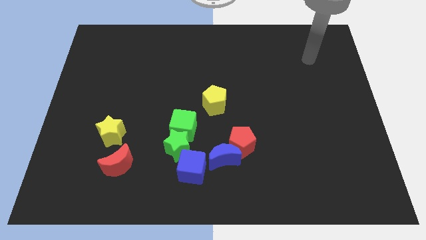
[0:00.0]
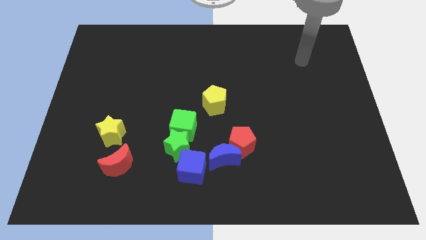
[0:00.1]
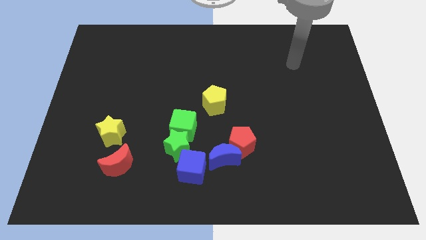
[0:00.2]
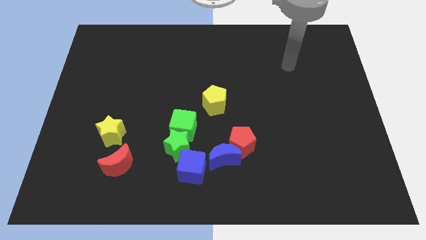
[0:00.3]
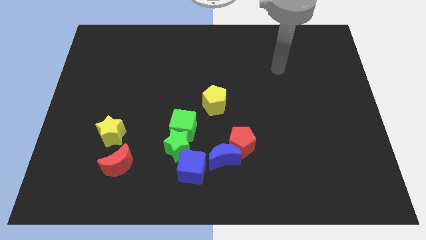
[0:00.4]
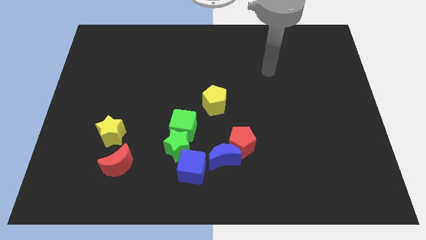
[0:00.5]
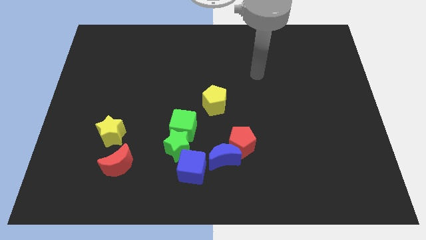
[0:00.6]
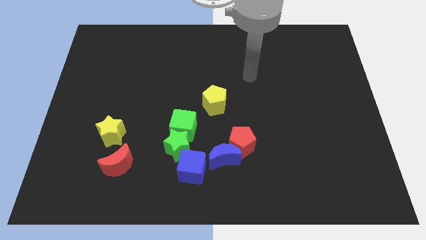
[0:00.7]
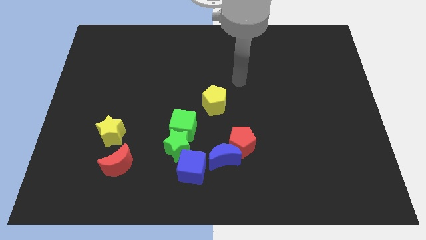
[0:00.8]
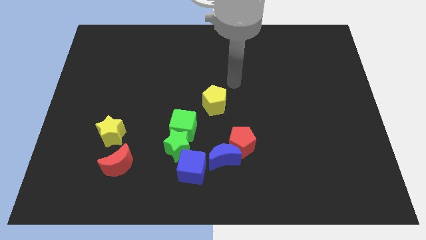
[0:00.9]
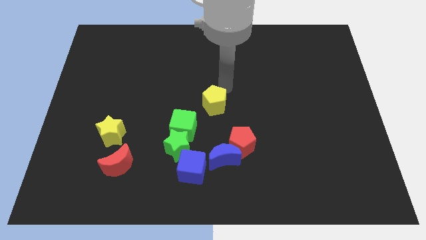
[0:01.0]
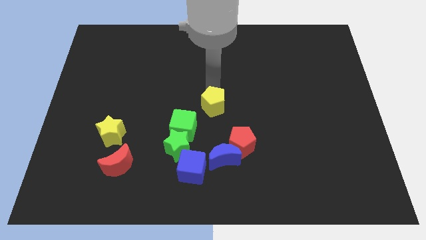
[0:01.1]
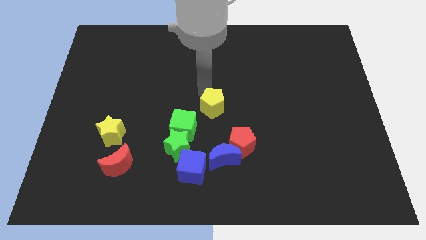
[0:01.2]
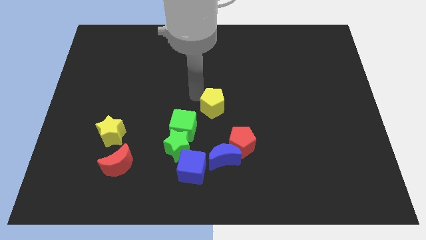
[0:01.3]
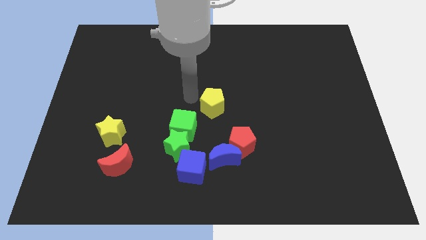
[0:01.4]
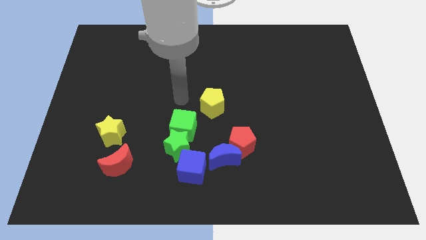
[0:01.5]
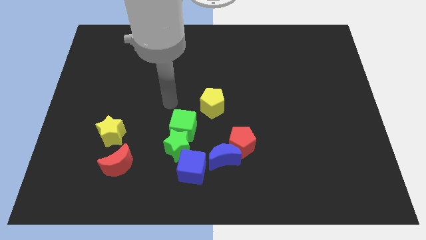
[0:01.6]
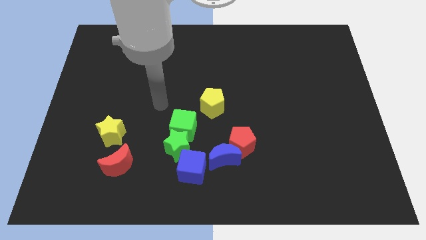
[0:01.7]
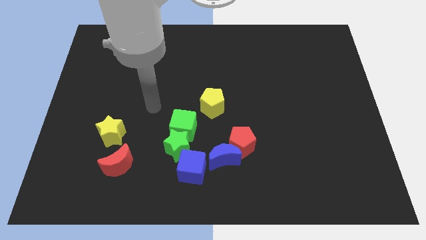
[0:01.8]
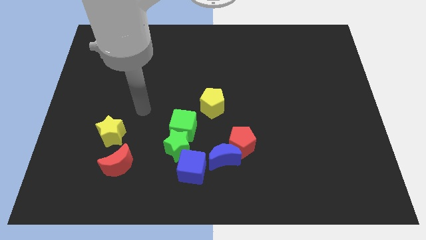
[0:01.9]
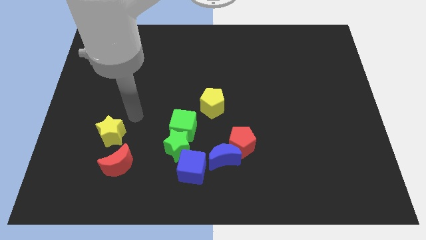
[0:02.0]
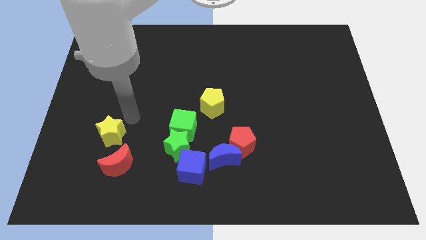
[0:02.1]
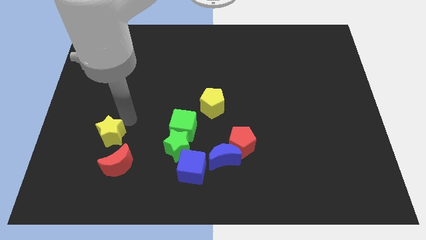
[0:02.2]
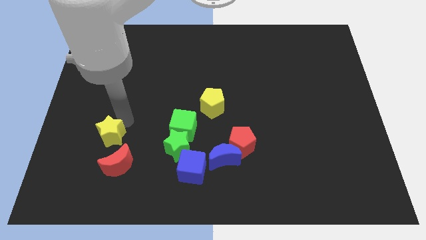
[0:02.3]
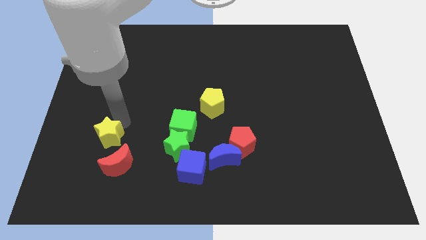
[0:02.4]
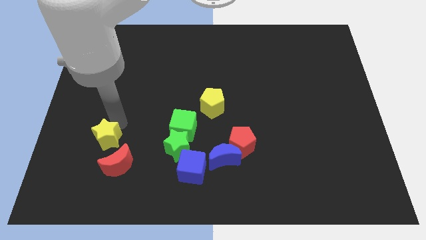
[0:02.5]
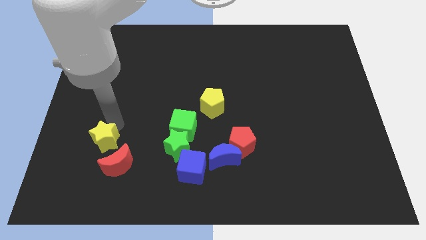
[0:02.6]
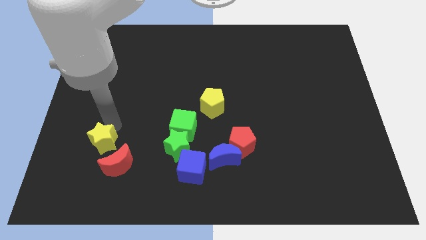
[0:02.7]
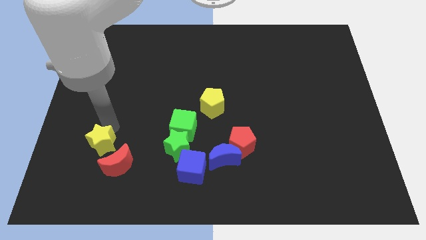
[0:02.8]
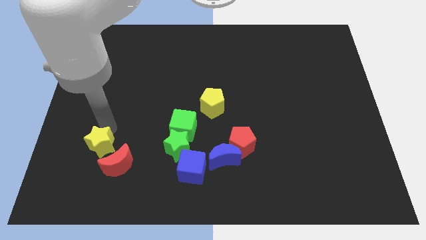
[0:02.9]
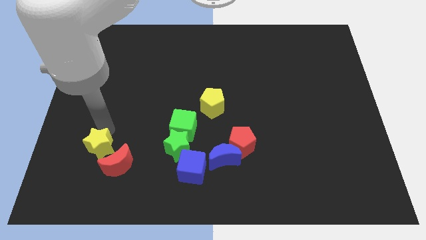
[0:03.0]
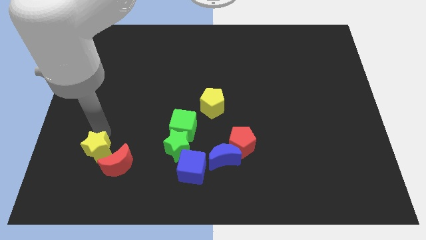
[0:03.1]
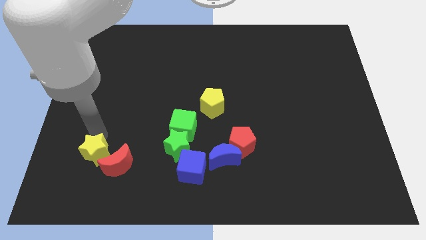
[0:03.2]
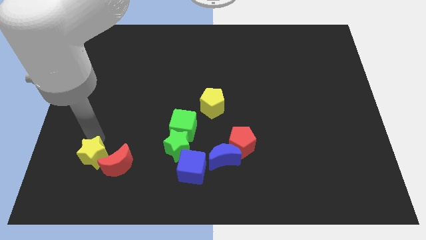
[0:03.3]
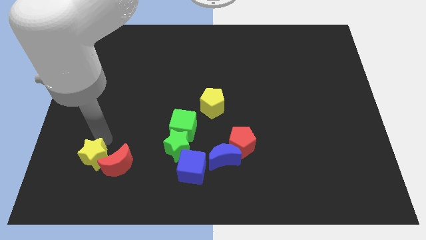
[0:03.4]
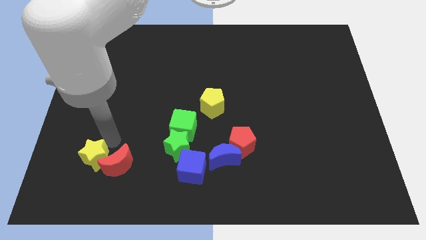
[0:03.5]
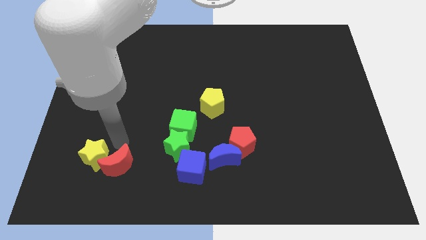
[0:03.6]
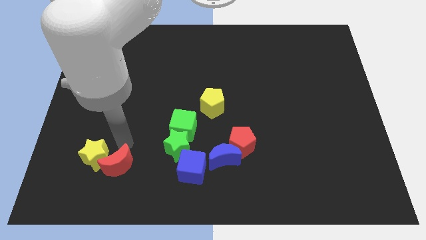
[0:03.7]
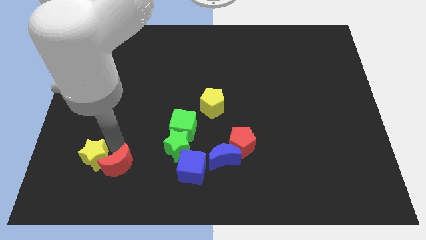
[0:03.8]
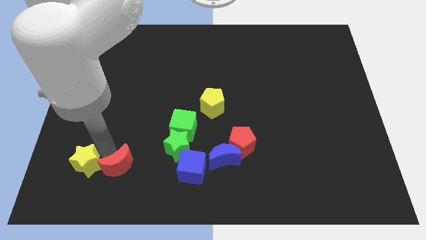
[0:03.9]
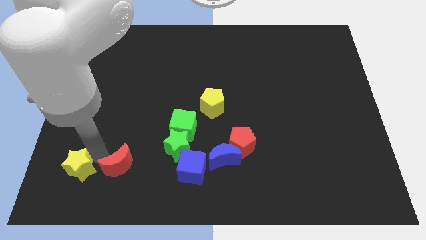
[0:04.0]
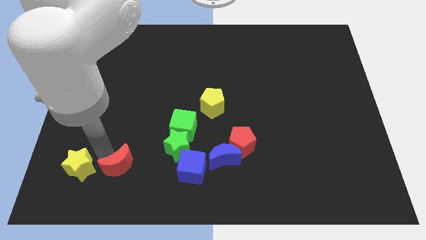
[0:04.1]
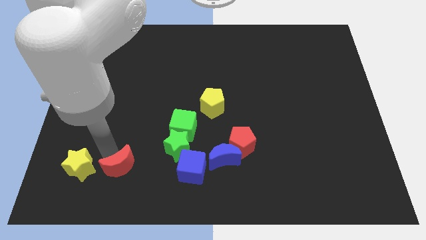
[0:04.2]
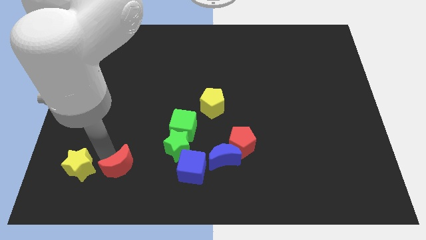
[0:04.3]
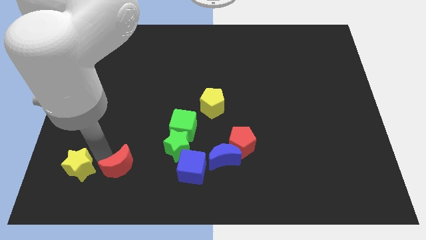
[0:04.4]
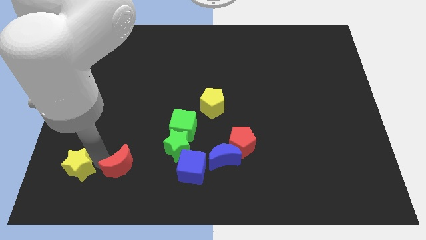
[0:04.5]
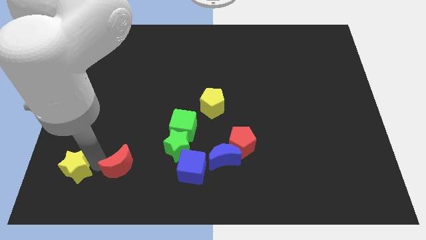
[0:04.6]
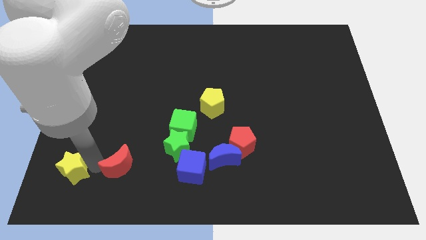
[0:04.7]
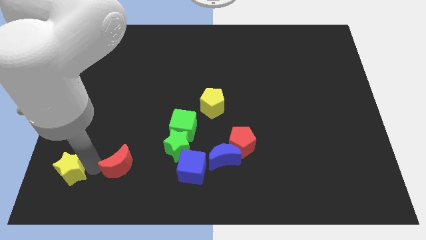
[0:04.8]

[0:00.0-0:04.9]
put the yellow star to the bottom left

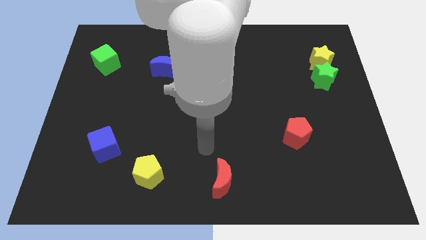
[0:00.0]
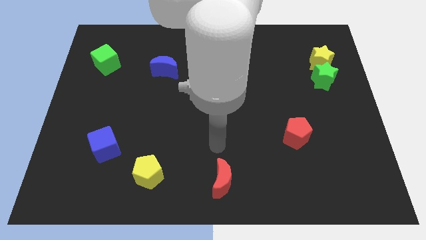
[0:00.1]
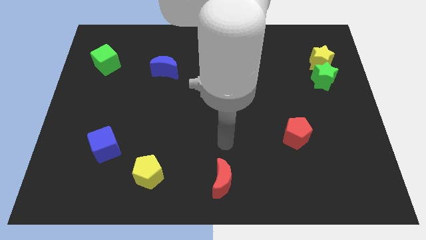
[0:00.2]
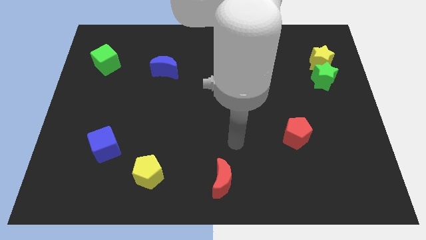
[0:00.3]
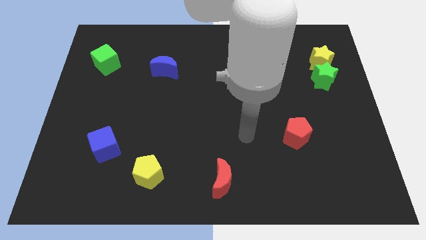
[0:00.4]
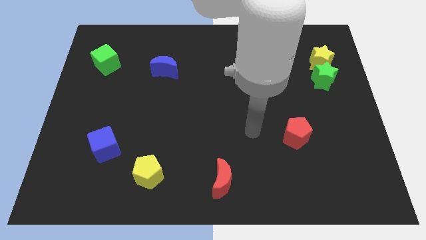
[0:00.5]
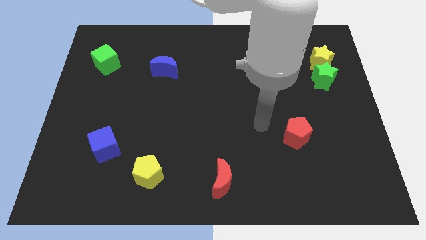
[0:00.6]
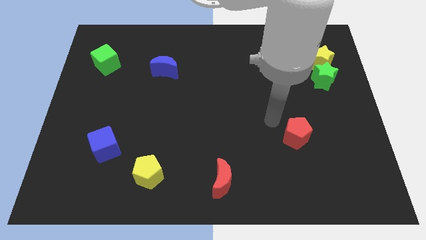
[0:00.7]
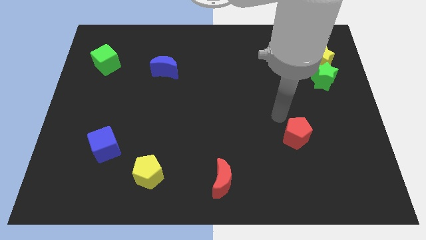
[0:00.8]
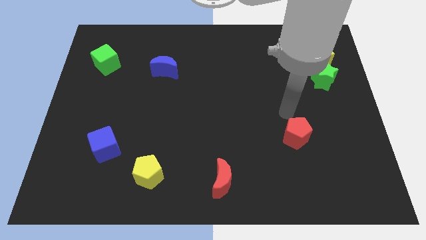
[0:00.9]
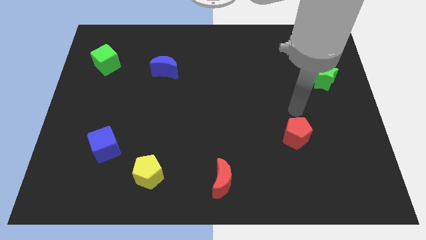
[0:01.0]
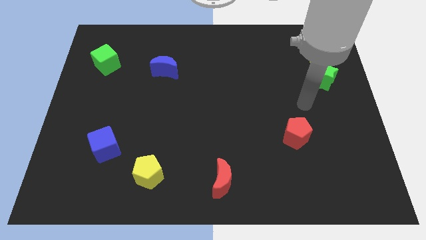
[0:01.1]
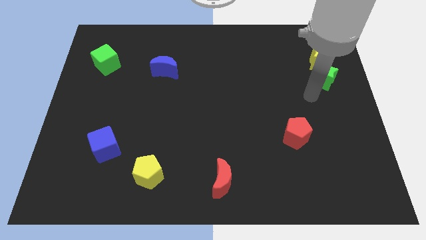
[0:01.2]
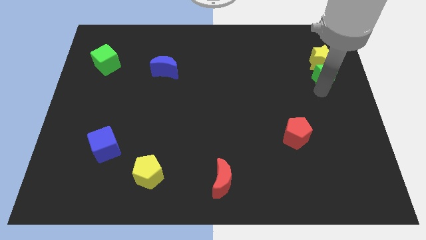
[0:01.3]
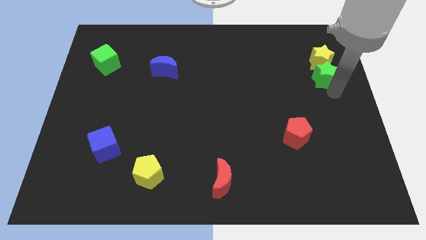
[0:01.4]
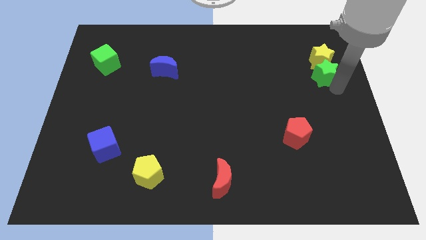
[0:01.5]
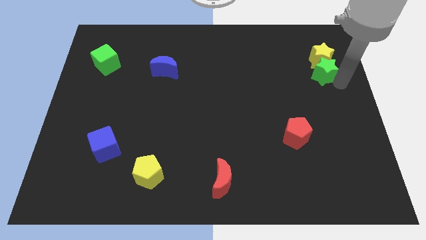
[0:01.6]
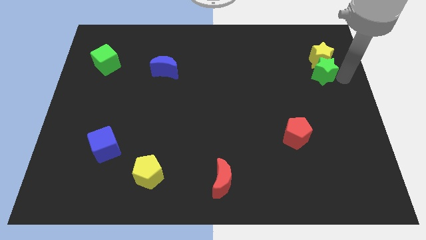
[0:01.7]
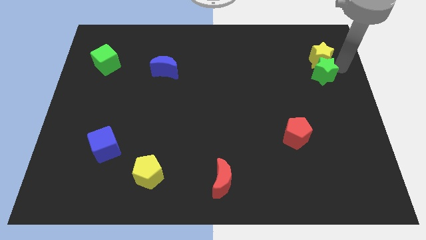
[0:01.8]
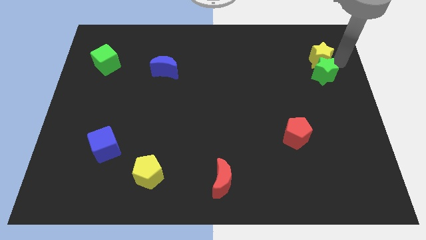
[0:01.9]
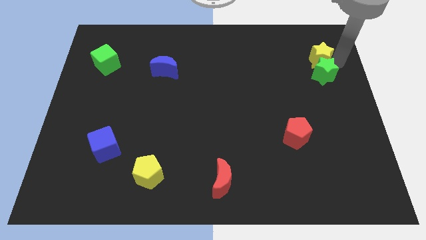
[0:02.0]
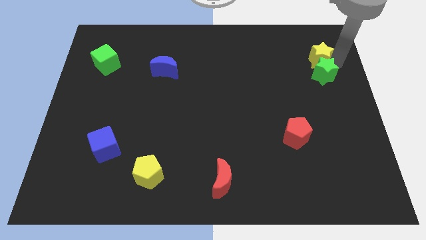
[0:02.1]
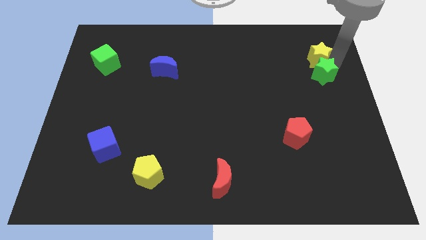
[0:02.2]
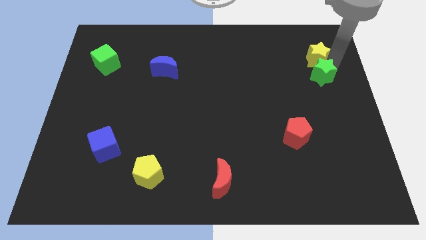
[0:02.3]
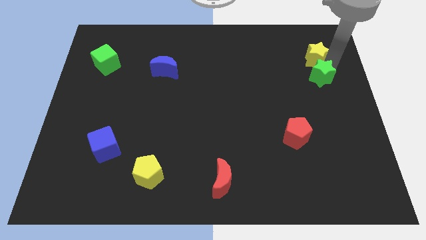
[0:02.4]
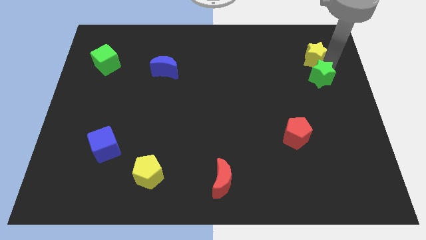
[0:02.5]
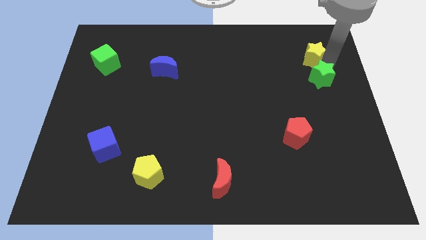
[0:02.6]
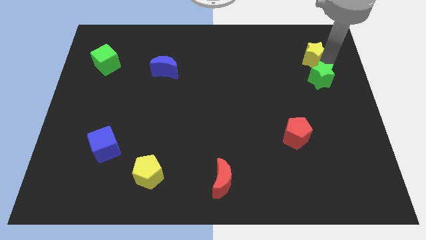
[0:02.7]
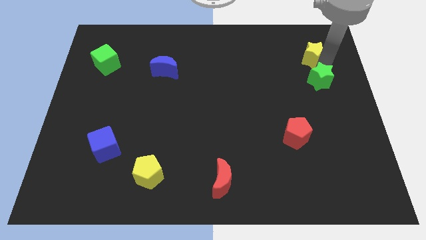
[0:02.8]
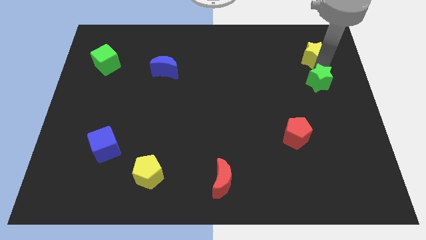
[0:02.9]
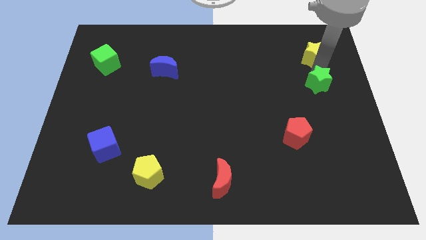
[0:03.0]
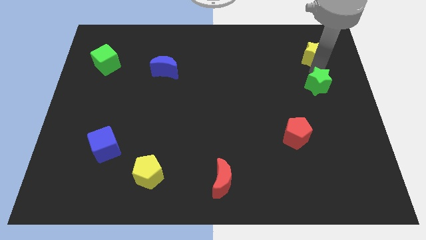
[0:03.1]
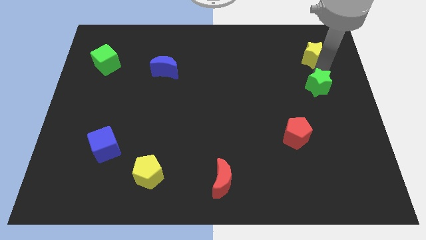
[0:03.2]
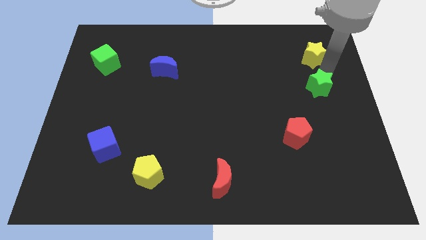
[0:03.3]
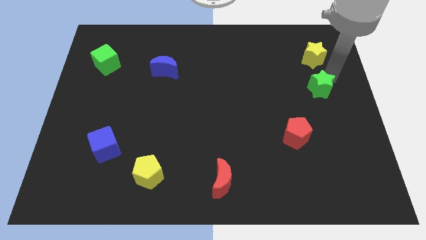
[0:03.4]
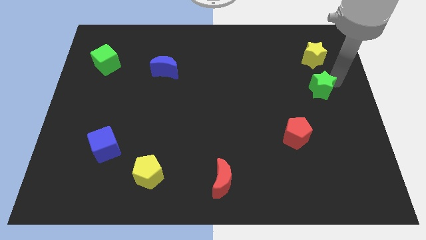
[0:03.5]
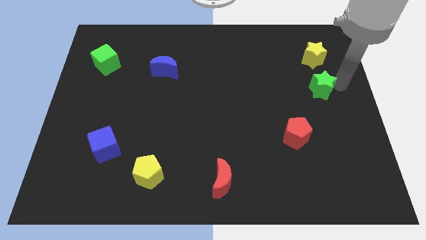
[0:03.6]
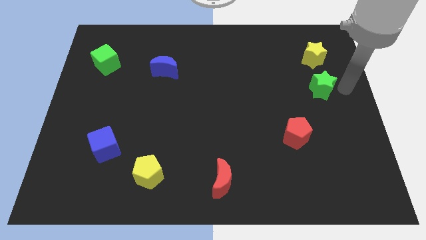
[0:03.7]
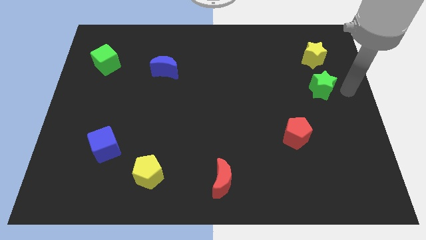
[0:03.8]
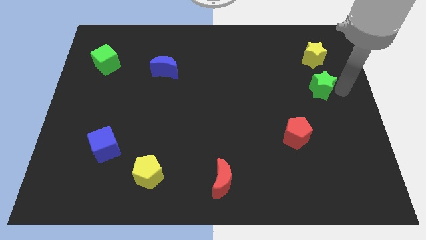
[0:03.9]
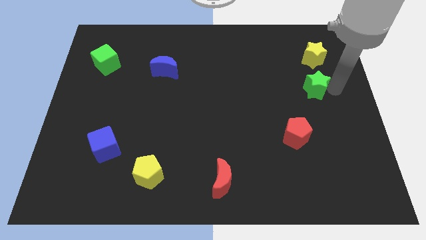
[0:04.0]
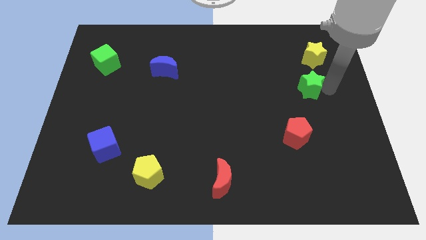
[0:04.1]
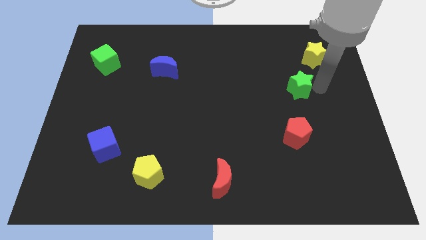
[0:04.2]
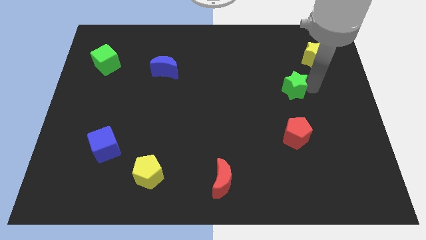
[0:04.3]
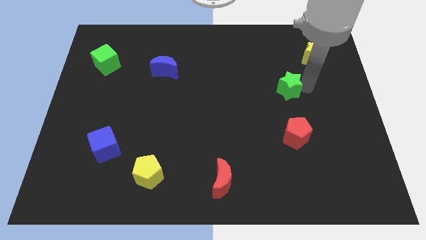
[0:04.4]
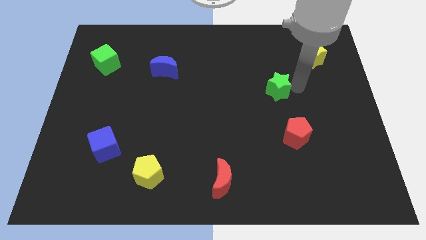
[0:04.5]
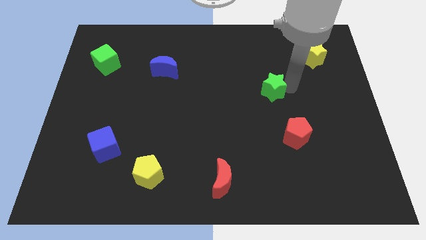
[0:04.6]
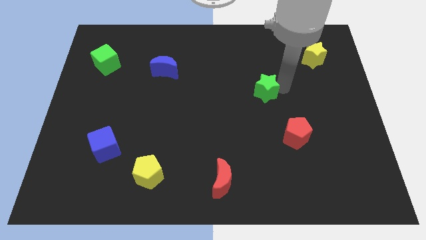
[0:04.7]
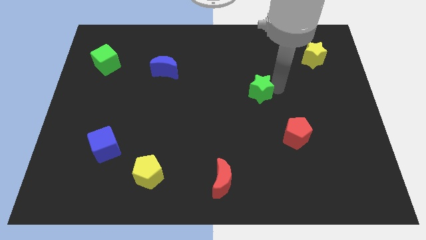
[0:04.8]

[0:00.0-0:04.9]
slide the green star to the center
